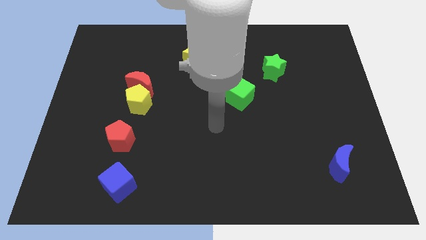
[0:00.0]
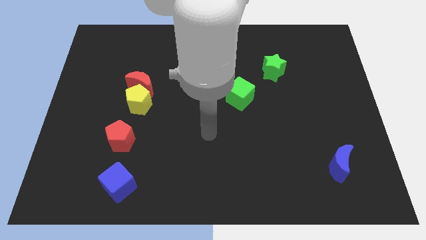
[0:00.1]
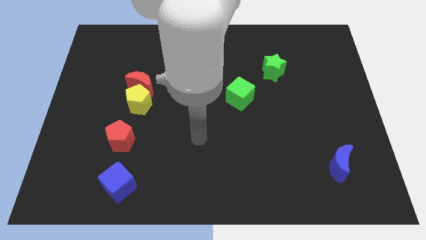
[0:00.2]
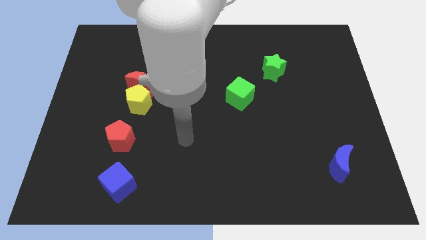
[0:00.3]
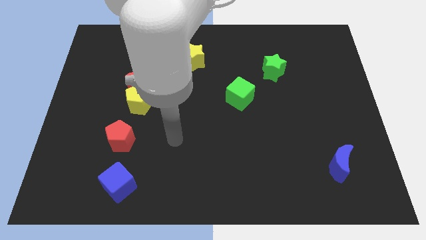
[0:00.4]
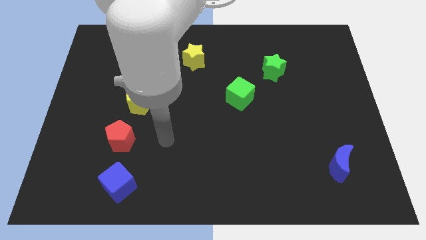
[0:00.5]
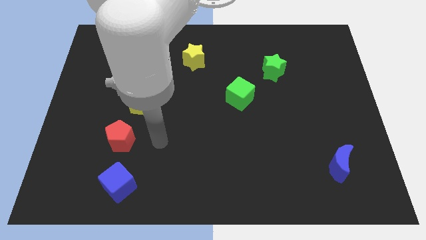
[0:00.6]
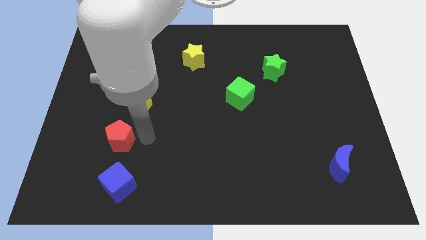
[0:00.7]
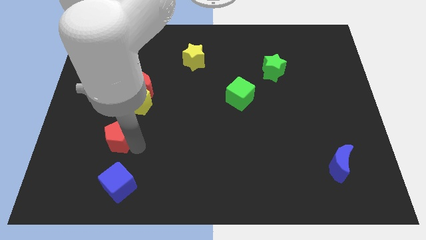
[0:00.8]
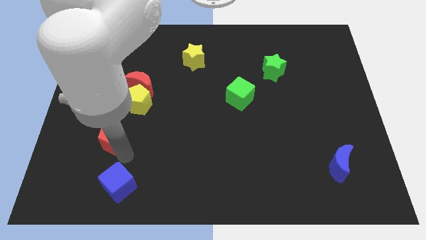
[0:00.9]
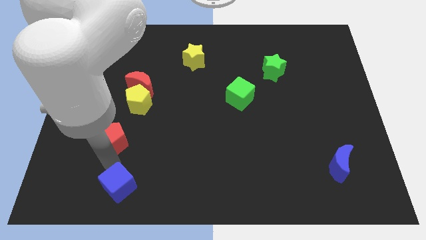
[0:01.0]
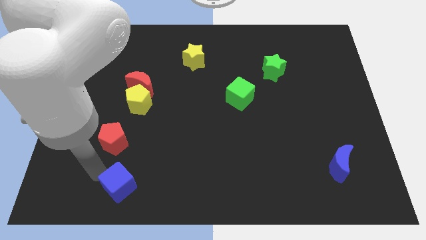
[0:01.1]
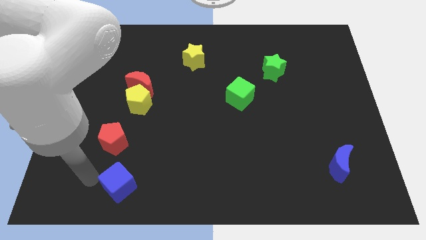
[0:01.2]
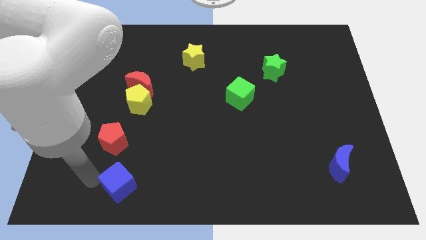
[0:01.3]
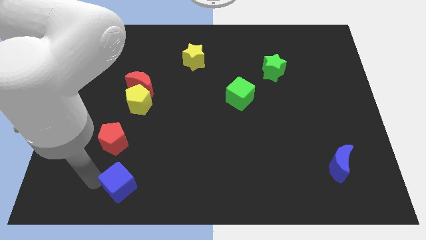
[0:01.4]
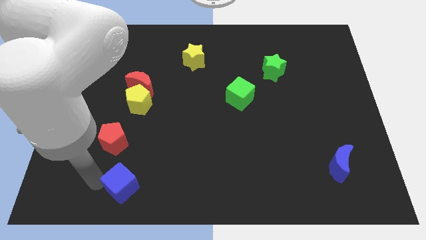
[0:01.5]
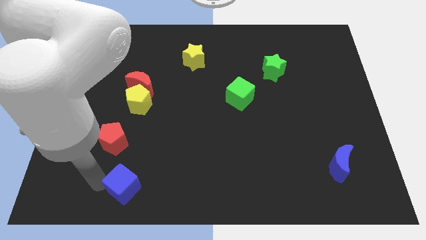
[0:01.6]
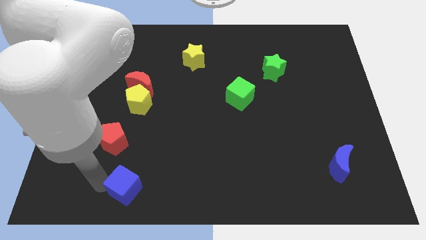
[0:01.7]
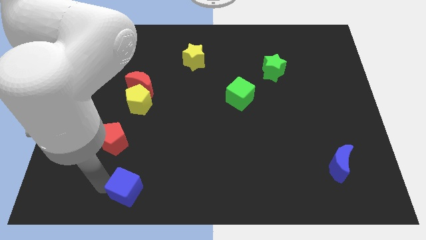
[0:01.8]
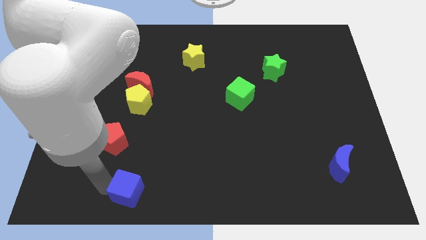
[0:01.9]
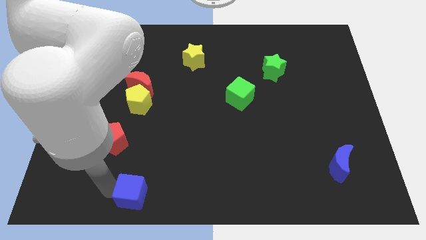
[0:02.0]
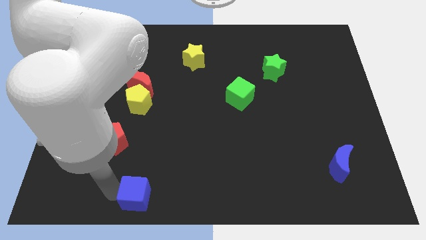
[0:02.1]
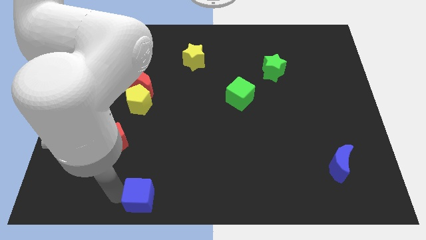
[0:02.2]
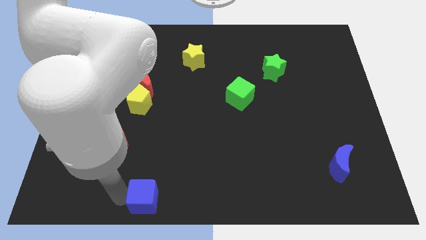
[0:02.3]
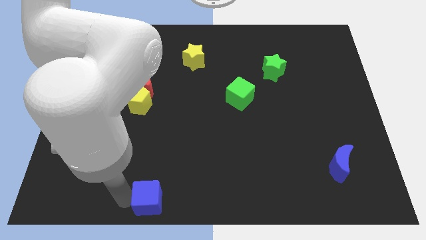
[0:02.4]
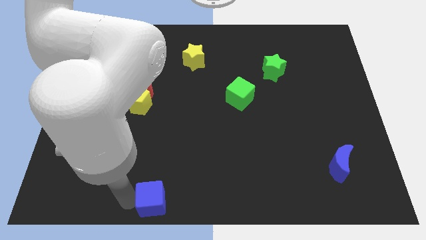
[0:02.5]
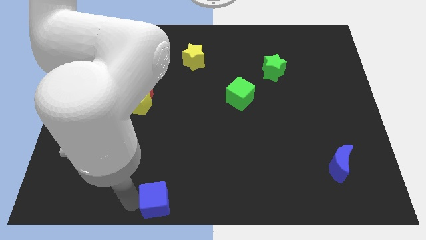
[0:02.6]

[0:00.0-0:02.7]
push the blue cube a little bit to the right

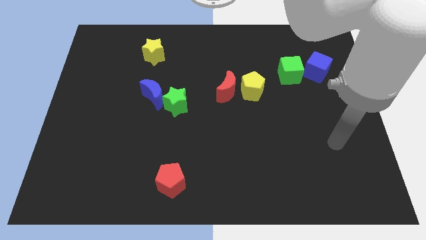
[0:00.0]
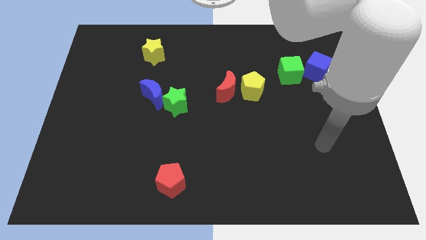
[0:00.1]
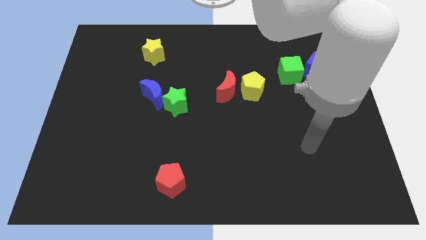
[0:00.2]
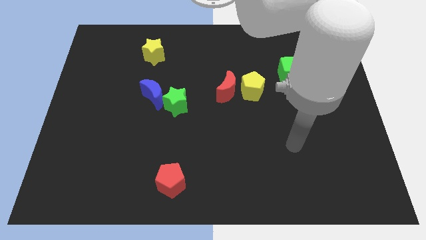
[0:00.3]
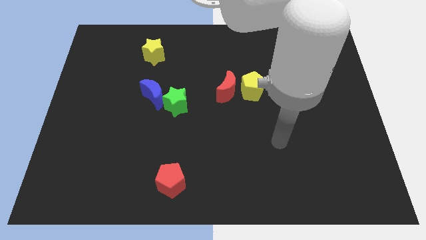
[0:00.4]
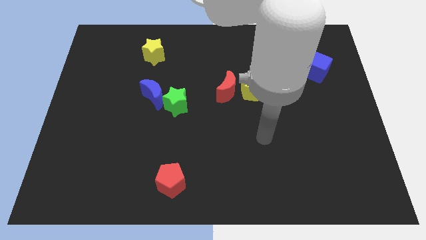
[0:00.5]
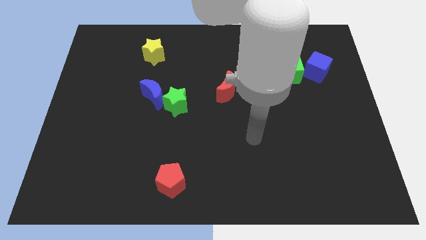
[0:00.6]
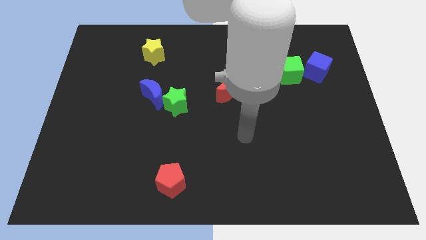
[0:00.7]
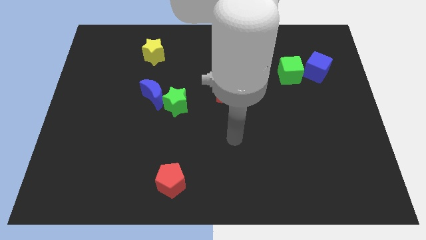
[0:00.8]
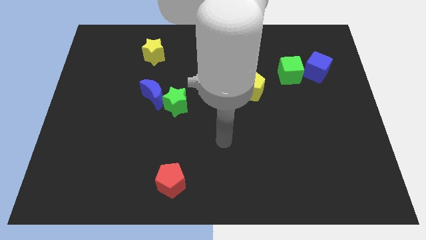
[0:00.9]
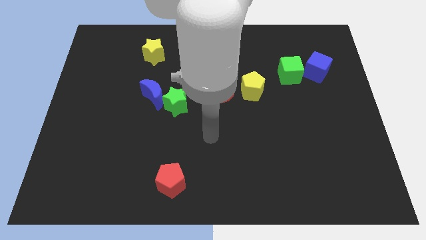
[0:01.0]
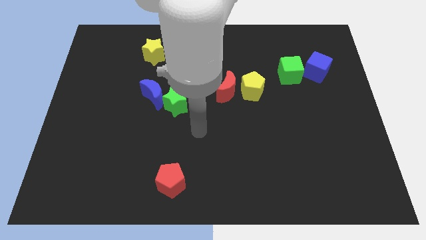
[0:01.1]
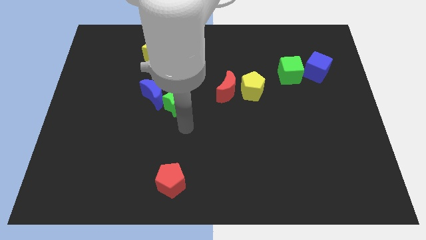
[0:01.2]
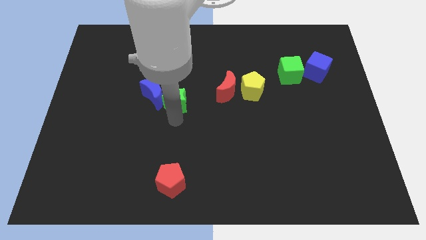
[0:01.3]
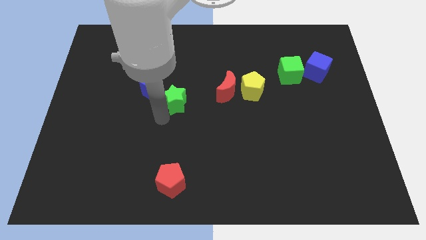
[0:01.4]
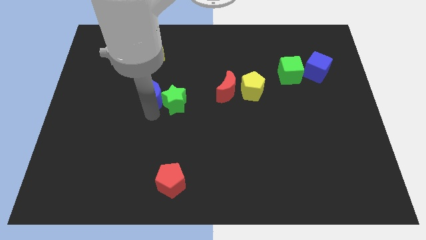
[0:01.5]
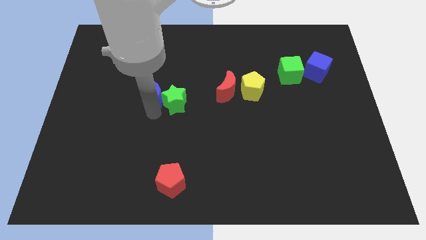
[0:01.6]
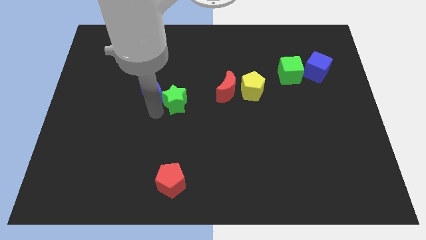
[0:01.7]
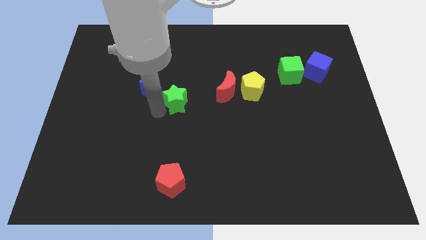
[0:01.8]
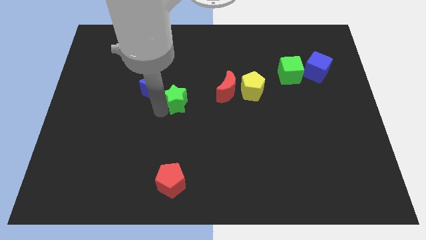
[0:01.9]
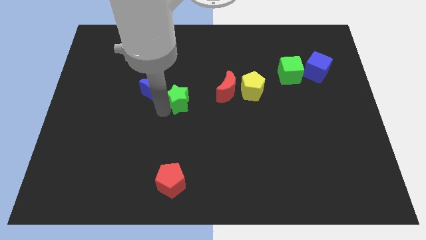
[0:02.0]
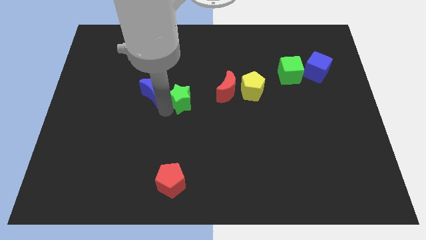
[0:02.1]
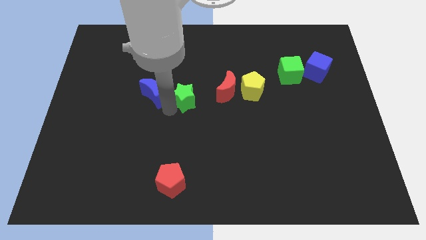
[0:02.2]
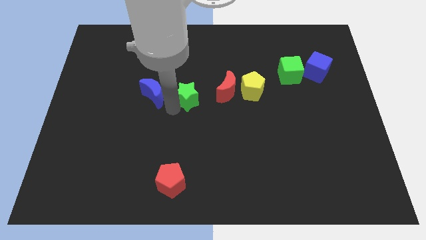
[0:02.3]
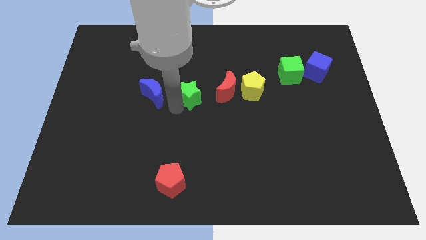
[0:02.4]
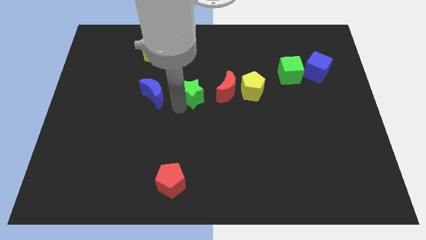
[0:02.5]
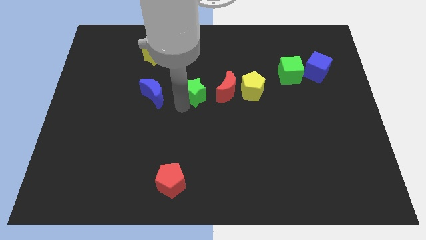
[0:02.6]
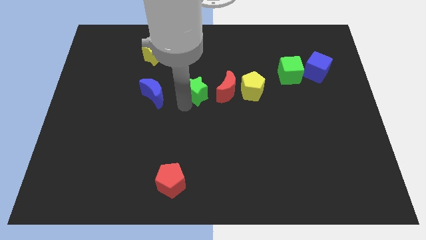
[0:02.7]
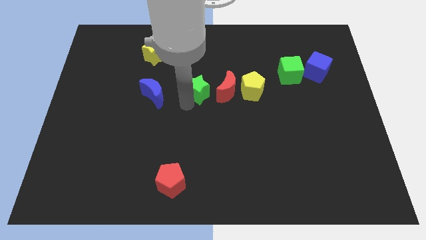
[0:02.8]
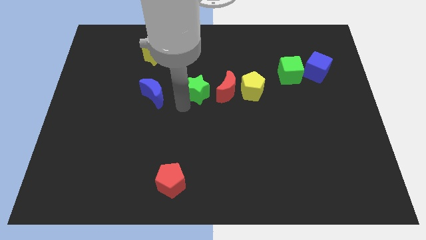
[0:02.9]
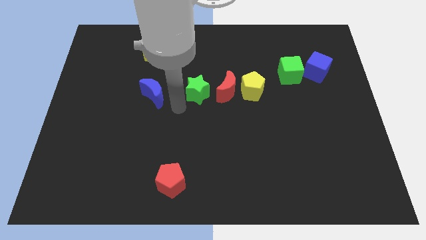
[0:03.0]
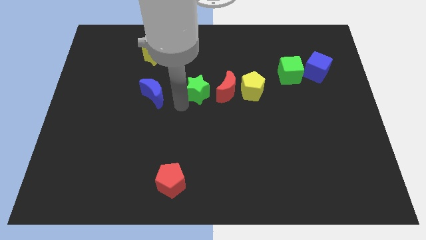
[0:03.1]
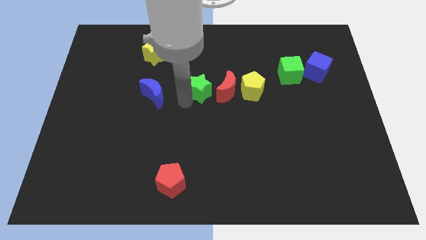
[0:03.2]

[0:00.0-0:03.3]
move the green star a bit up and then right

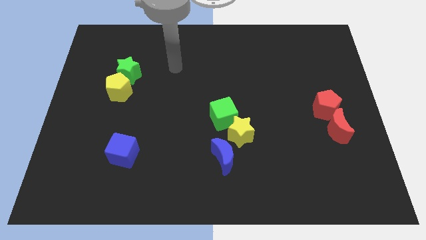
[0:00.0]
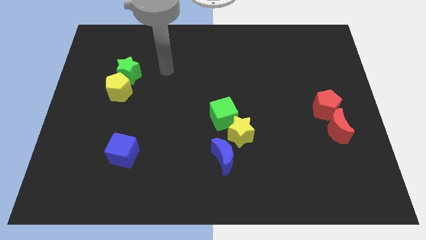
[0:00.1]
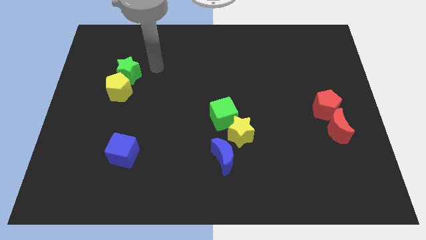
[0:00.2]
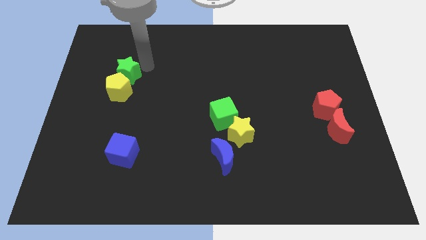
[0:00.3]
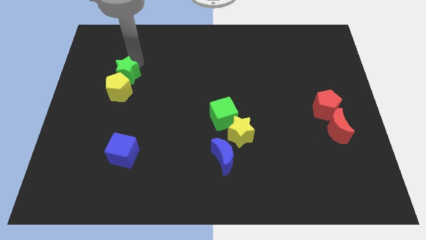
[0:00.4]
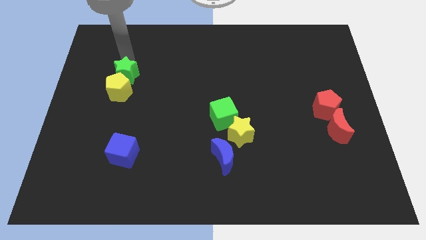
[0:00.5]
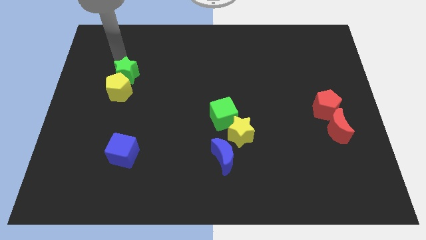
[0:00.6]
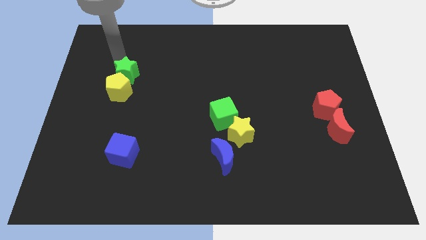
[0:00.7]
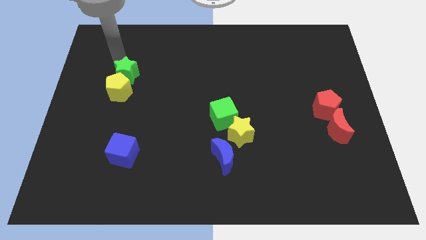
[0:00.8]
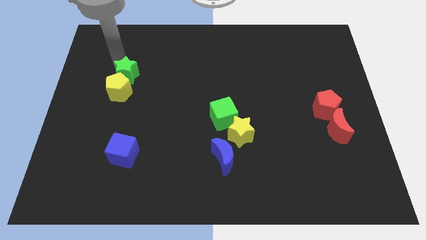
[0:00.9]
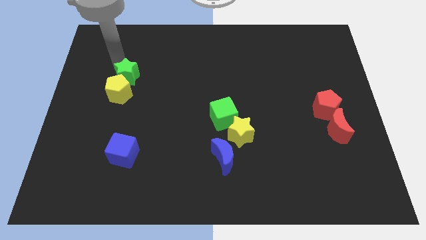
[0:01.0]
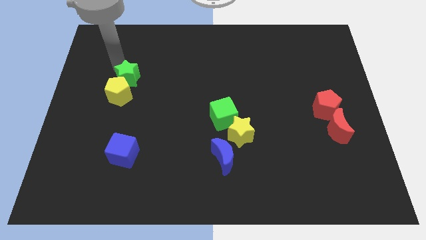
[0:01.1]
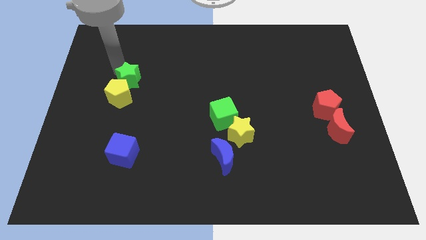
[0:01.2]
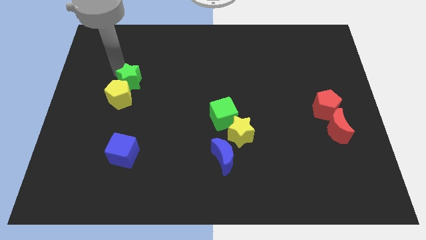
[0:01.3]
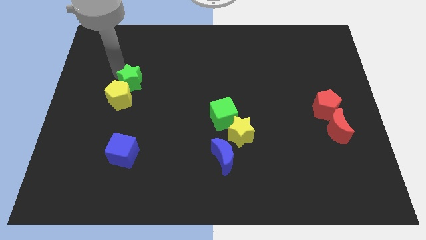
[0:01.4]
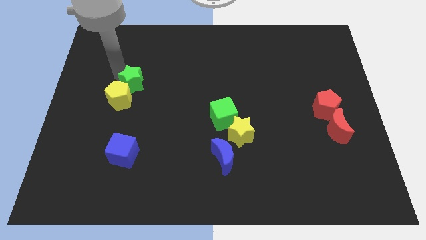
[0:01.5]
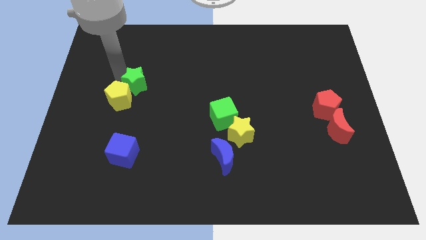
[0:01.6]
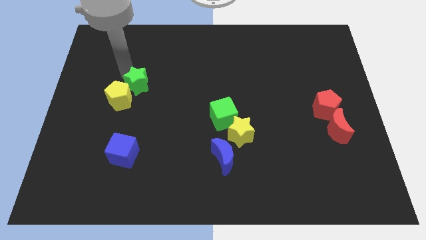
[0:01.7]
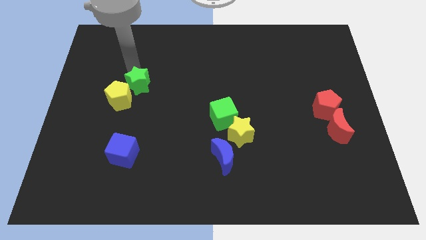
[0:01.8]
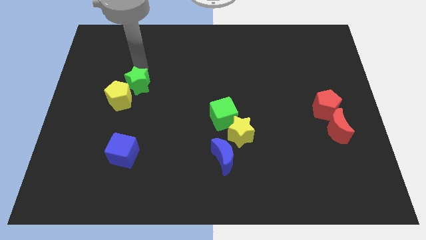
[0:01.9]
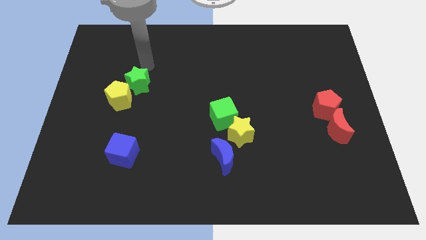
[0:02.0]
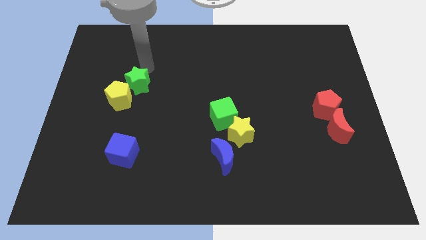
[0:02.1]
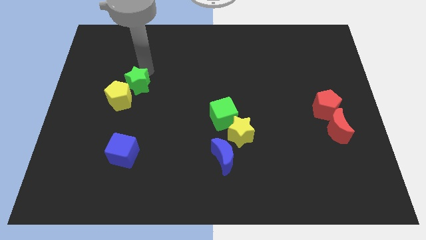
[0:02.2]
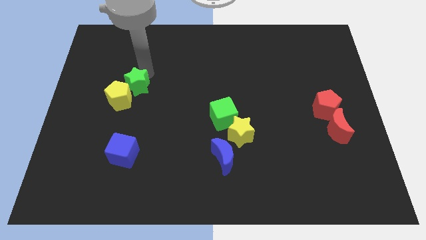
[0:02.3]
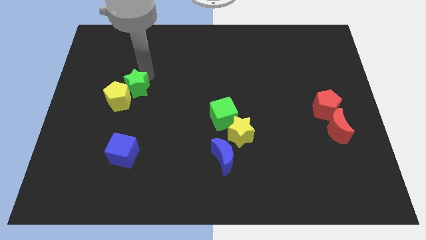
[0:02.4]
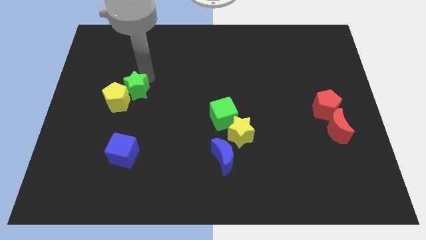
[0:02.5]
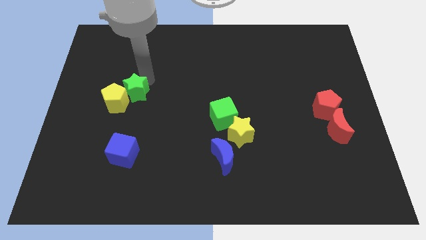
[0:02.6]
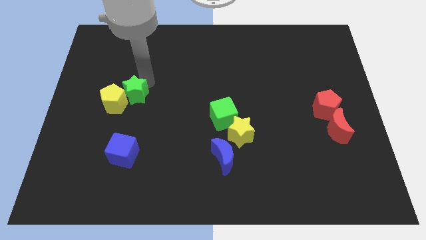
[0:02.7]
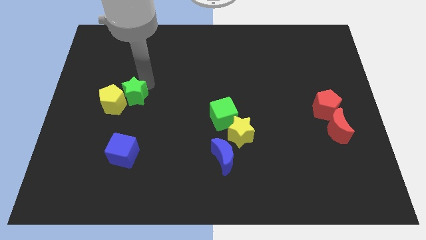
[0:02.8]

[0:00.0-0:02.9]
move the green star slightly downwards
